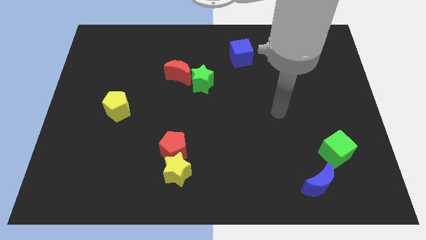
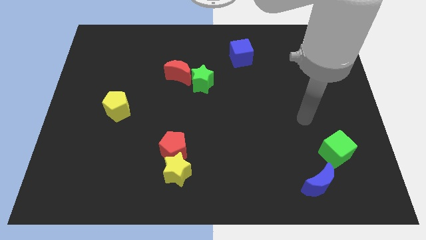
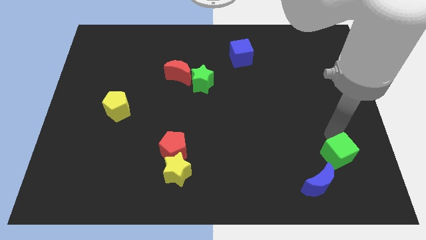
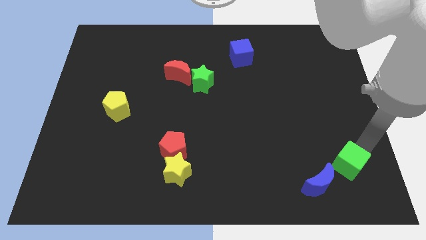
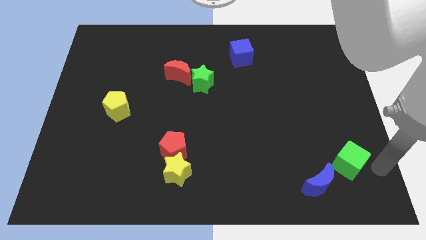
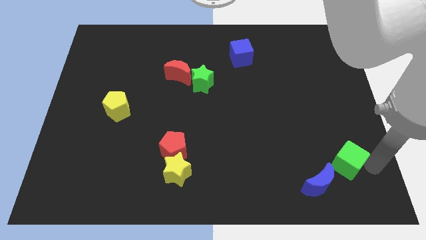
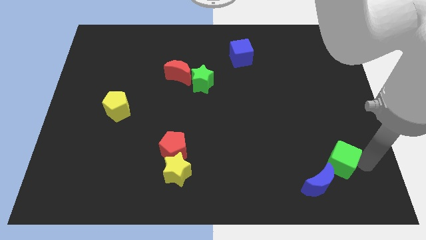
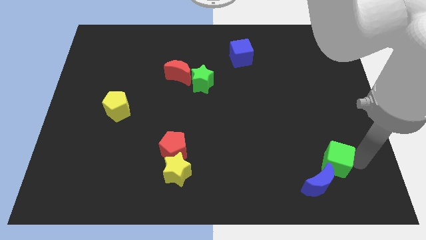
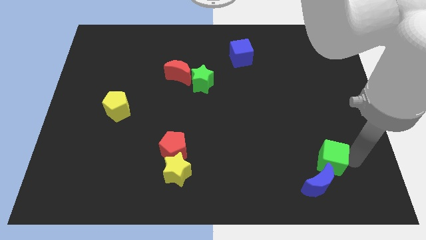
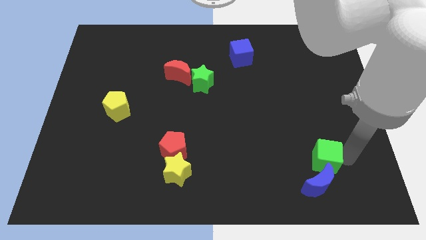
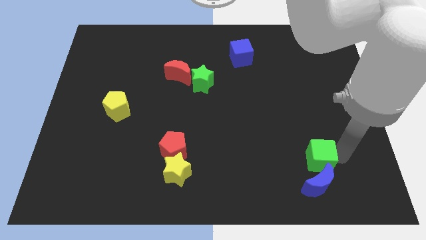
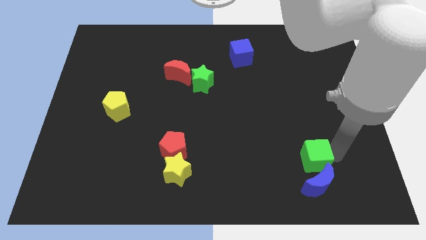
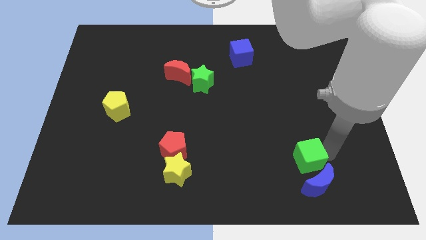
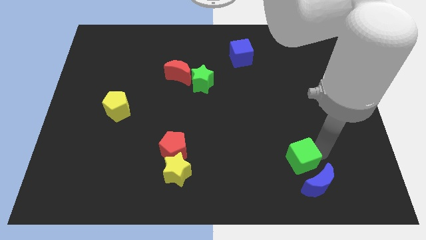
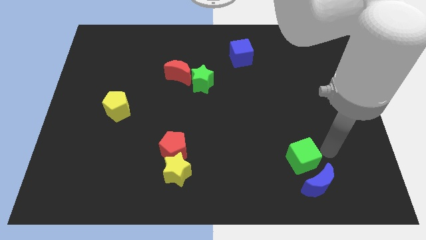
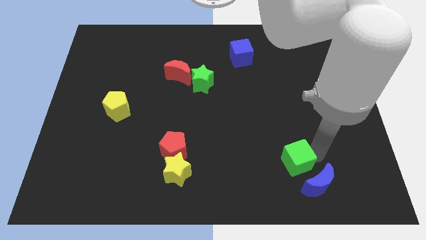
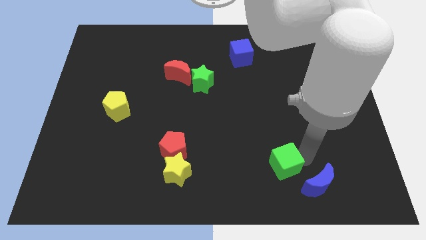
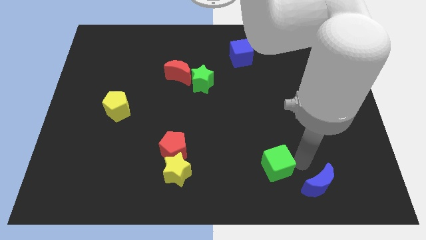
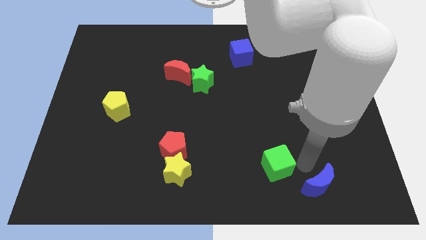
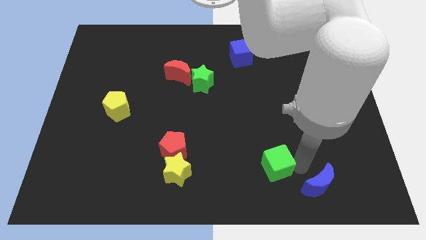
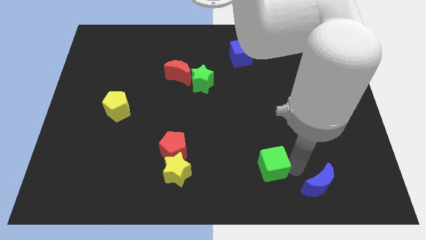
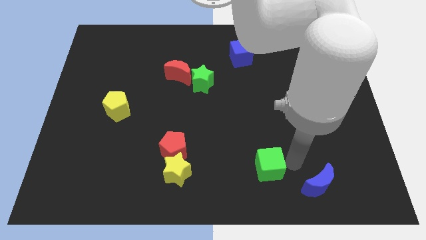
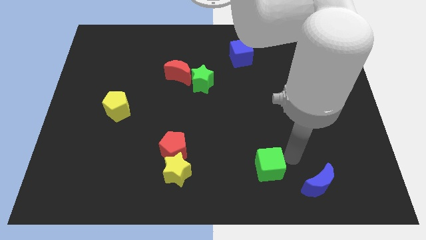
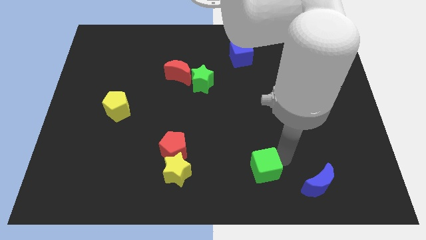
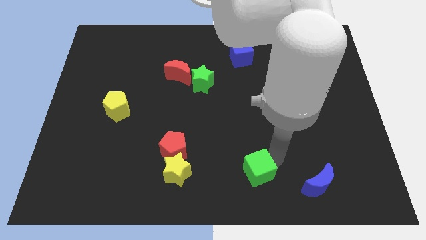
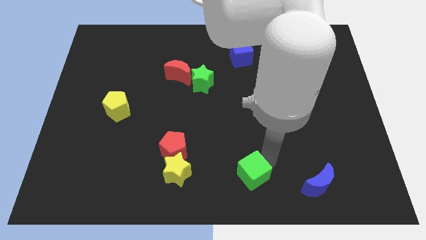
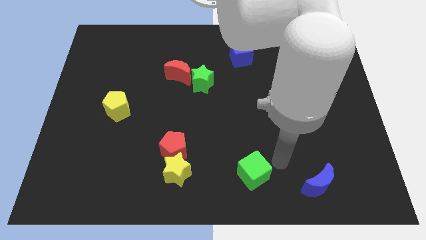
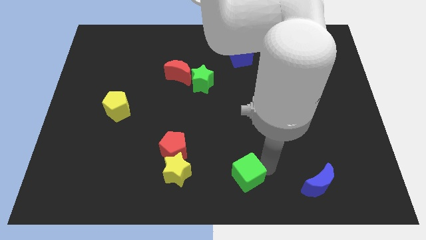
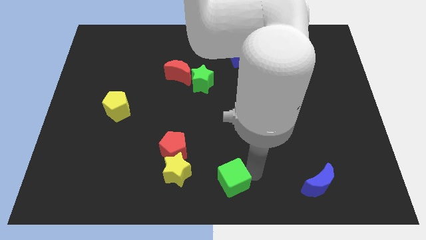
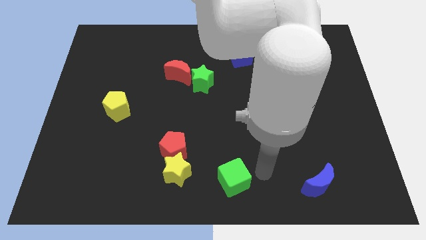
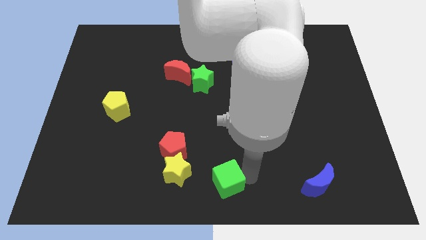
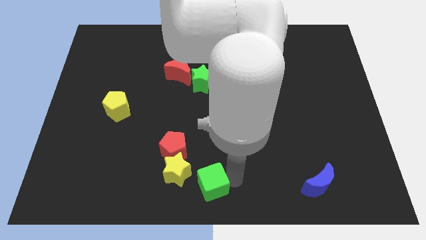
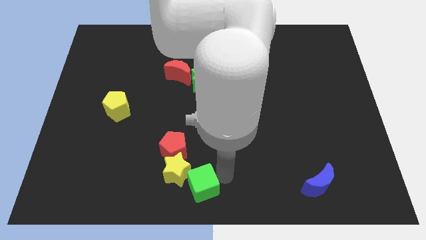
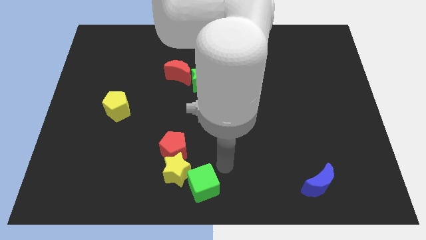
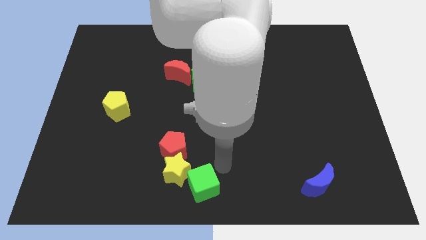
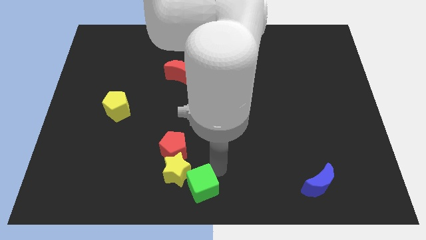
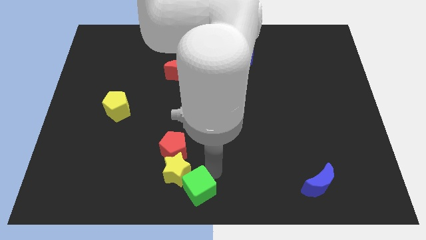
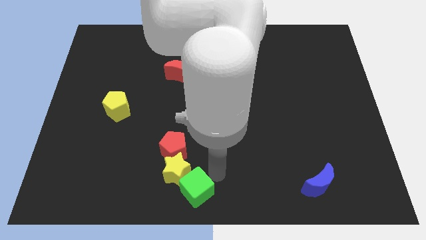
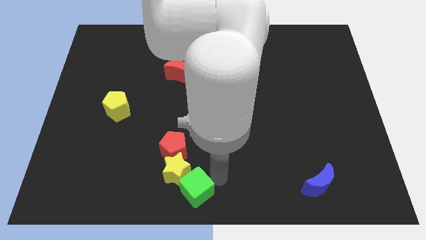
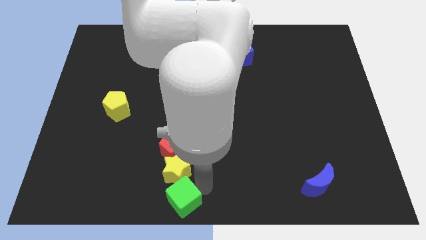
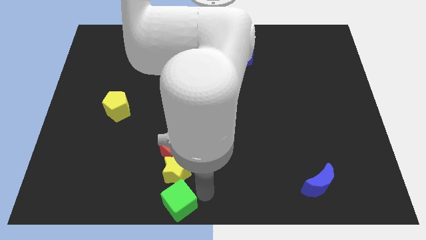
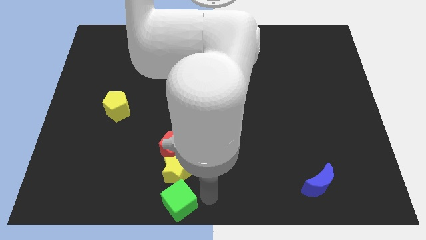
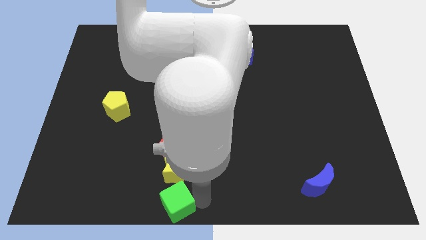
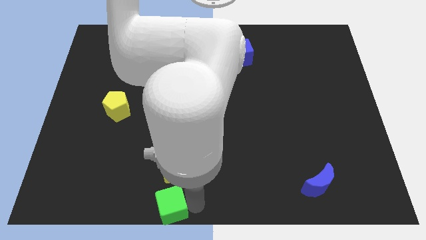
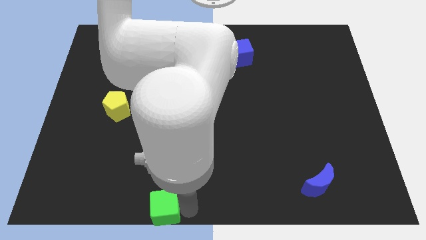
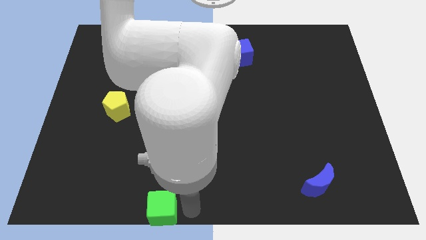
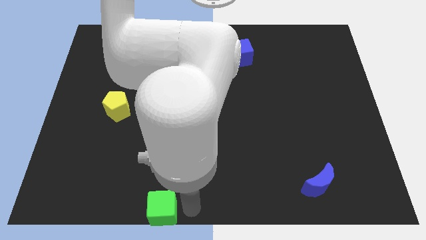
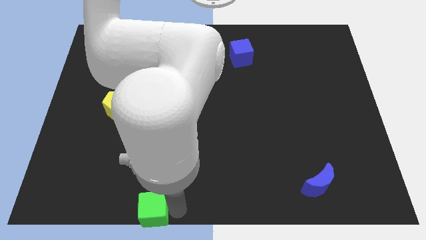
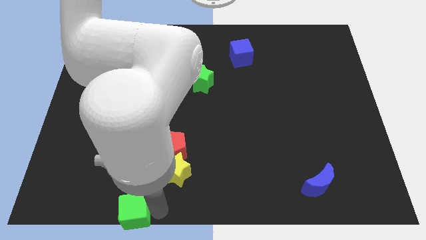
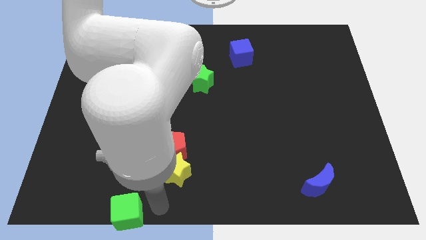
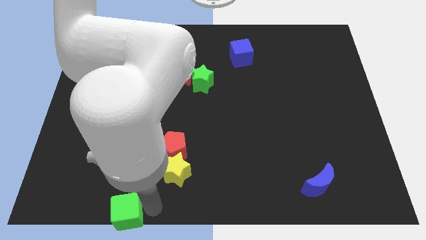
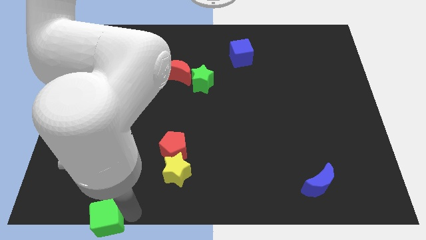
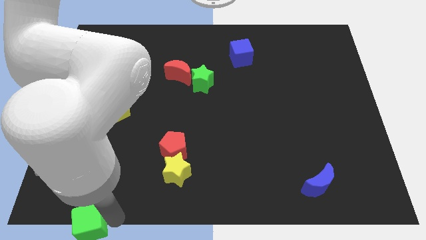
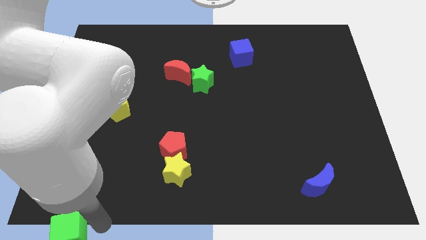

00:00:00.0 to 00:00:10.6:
put the green cube to the bottom left

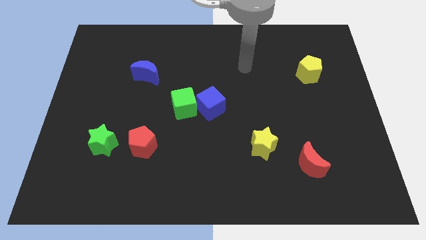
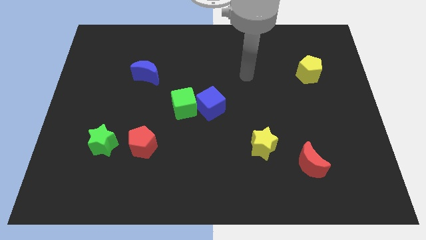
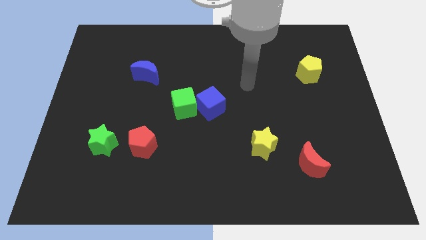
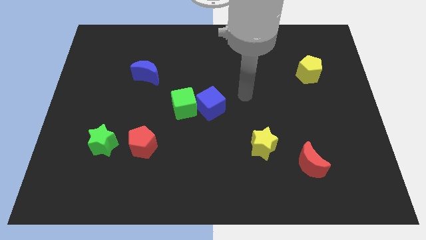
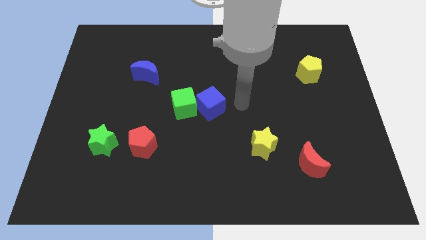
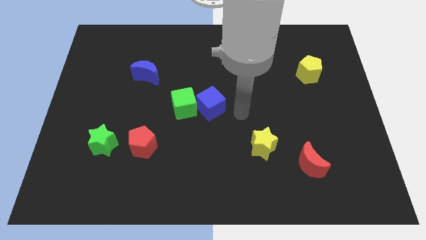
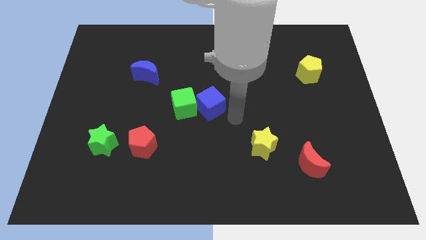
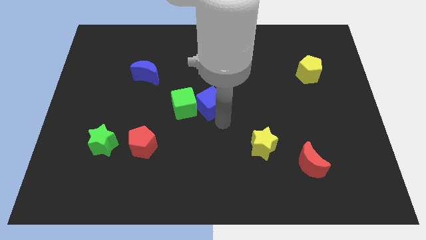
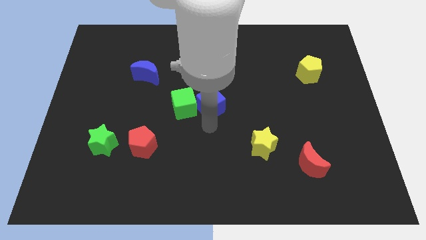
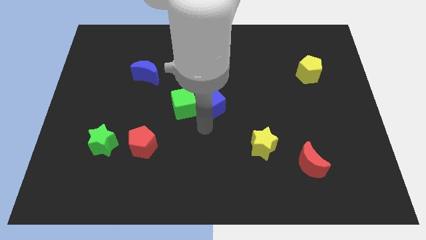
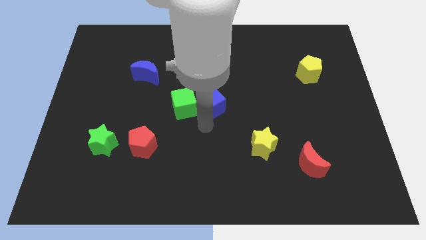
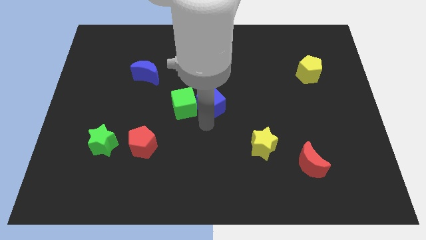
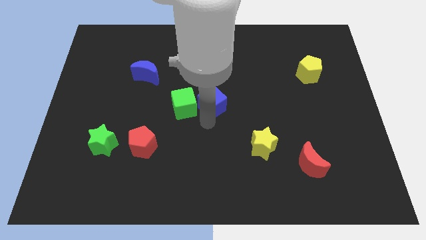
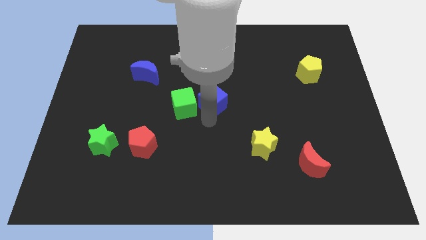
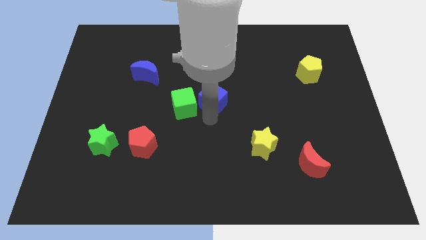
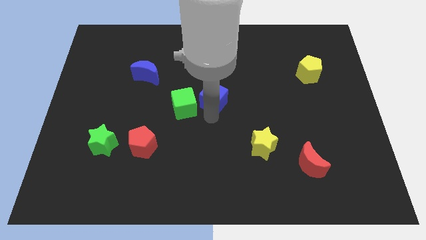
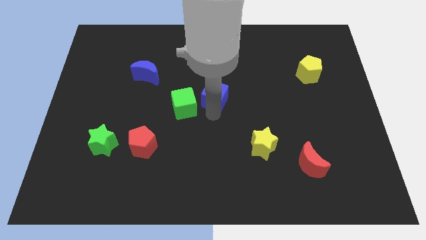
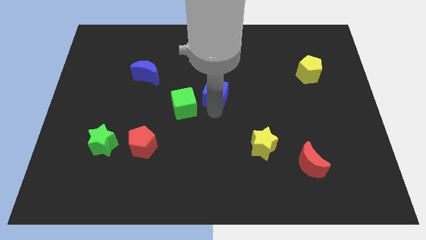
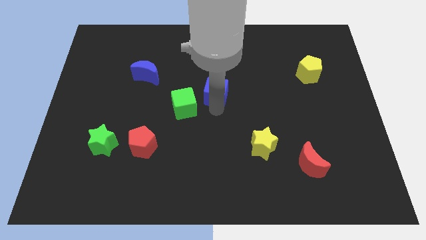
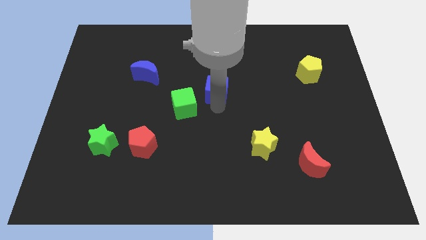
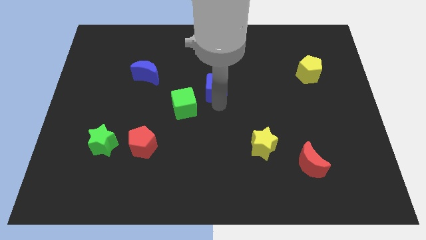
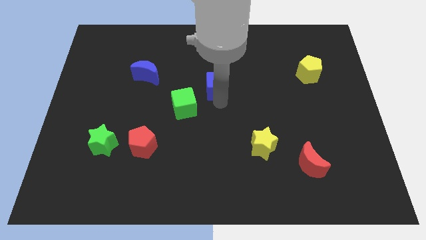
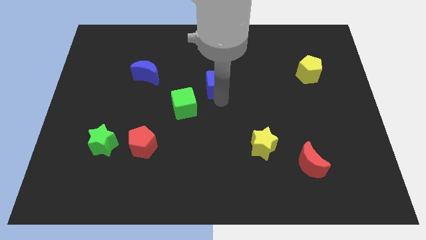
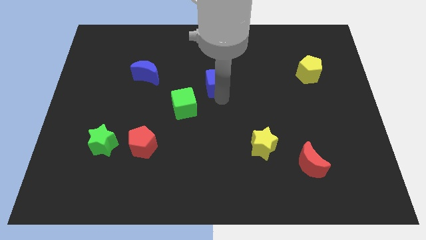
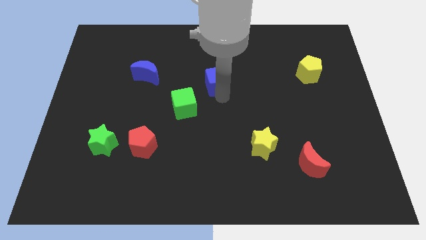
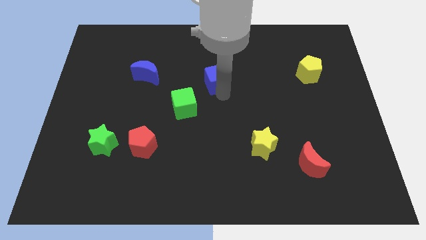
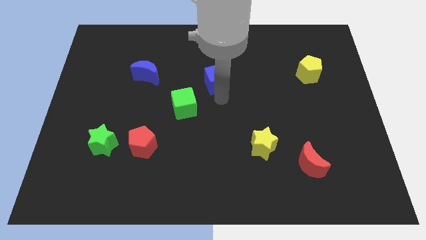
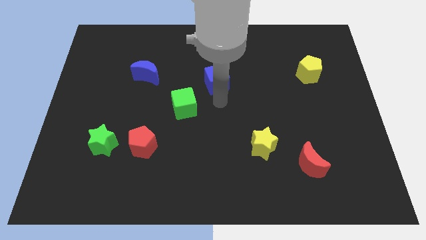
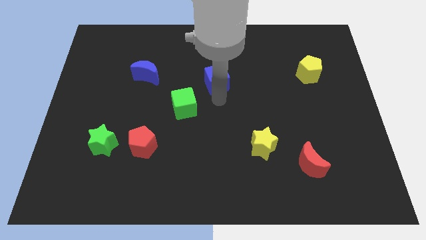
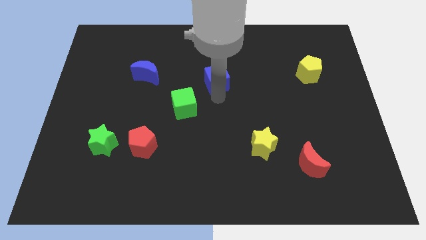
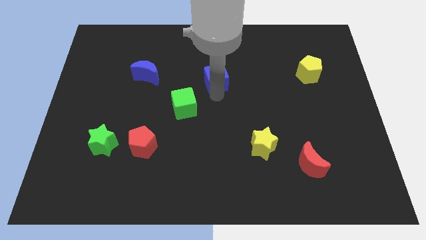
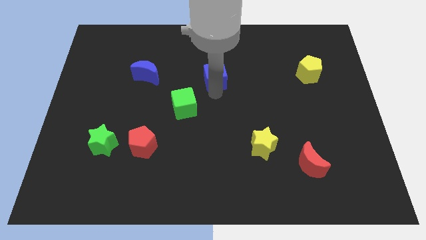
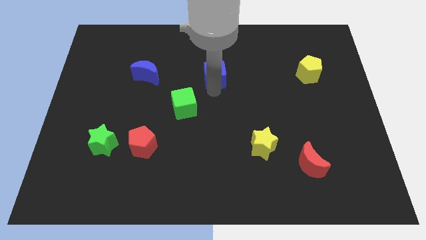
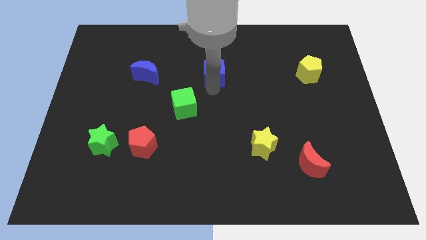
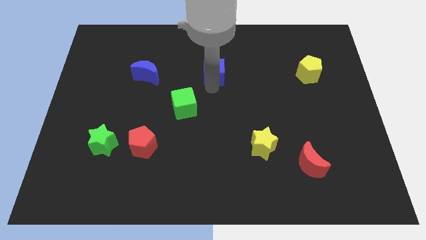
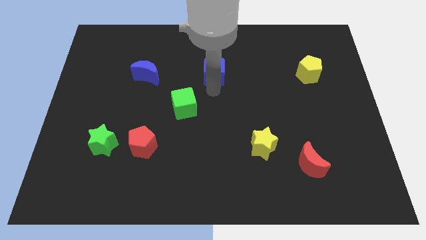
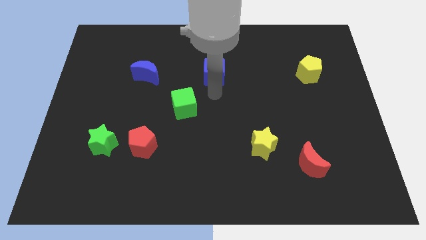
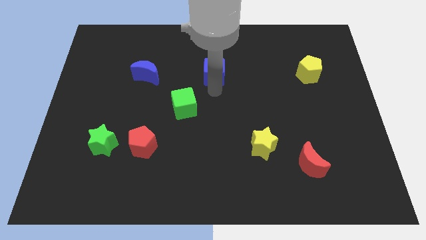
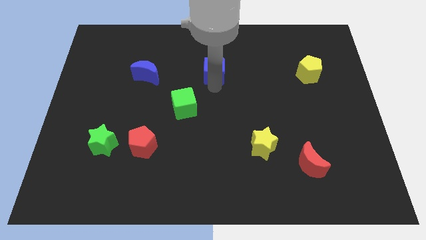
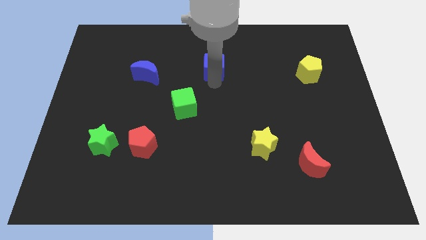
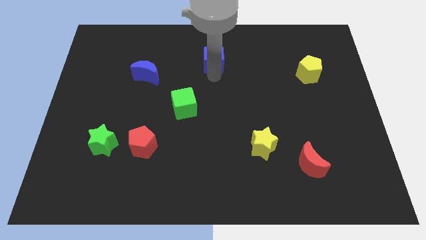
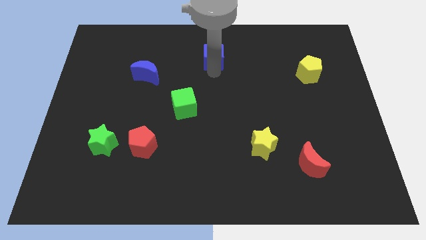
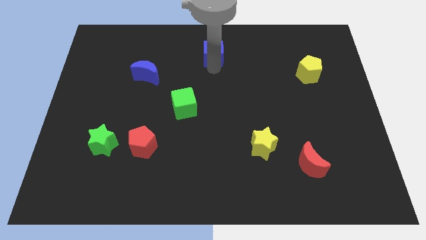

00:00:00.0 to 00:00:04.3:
push the blue cube to the towards your base
